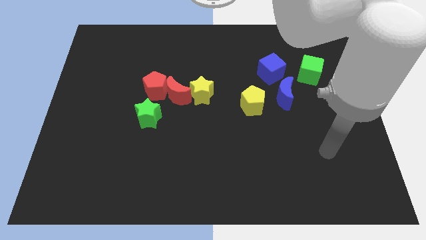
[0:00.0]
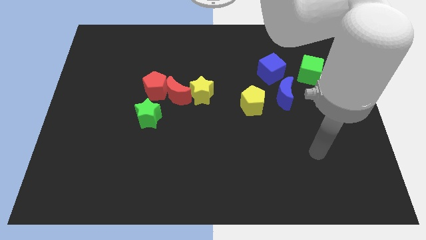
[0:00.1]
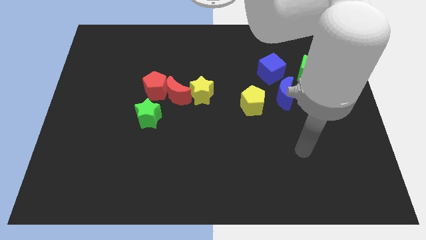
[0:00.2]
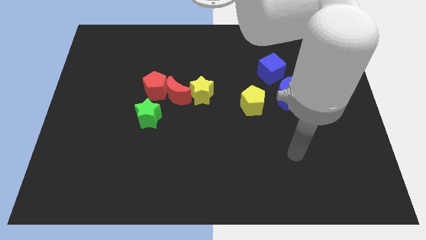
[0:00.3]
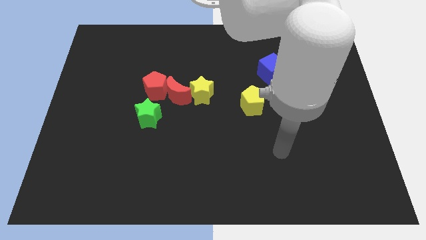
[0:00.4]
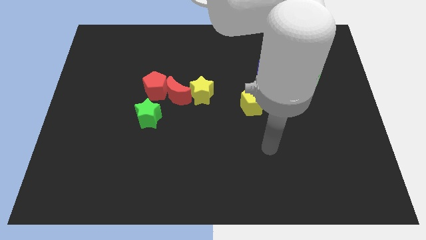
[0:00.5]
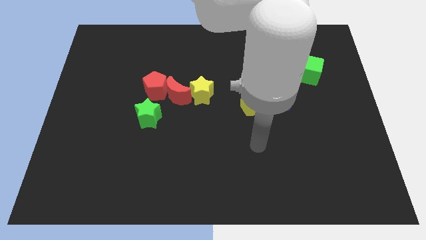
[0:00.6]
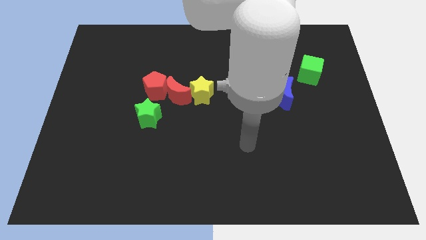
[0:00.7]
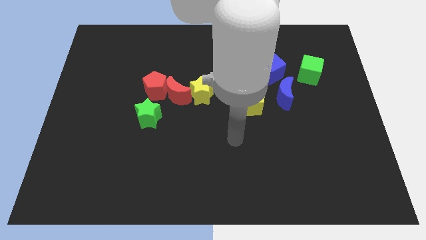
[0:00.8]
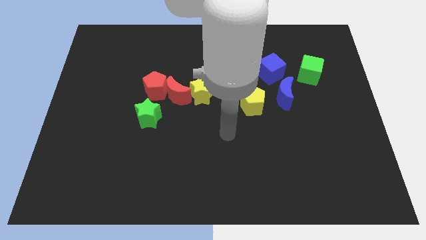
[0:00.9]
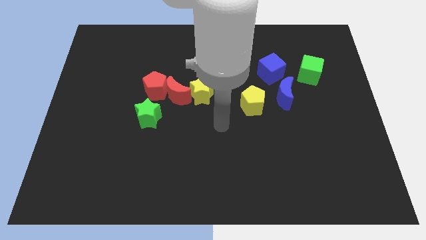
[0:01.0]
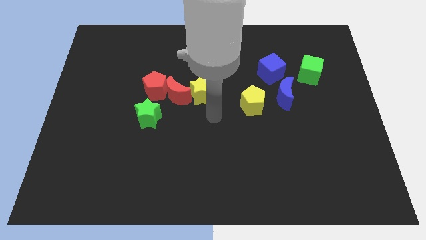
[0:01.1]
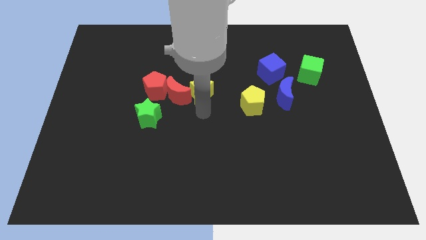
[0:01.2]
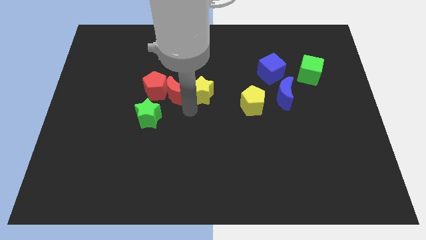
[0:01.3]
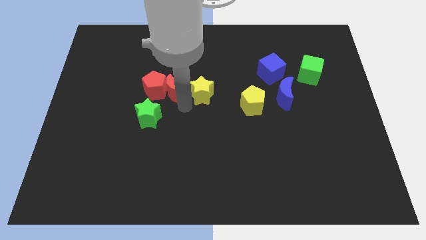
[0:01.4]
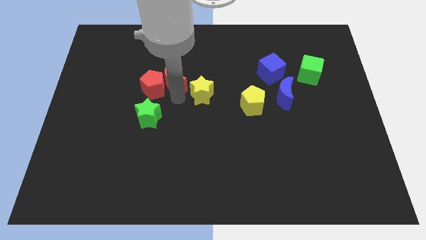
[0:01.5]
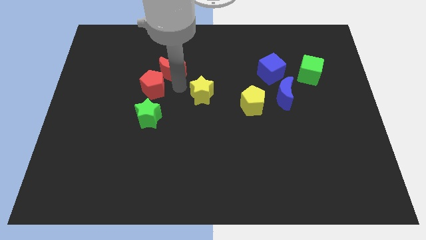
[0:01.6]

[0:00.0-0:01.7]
pull the yellow star apart from the red moon

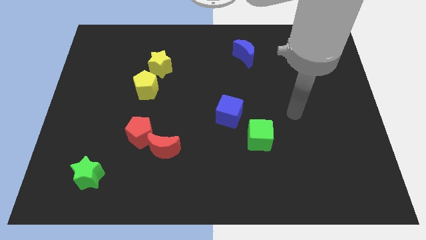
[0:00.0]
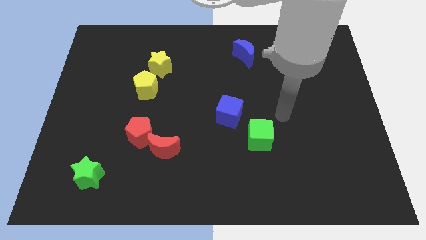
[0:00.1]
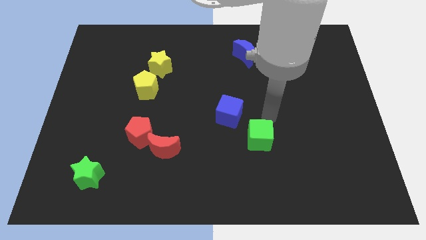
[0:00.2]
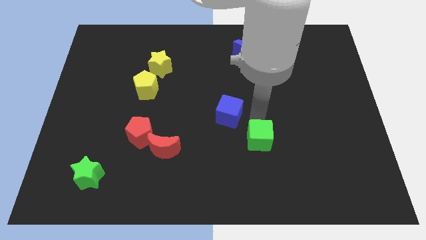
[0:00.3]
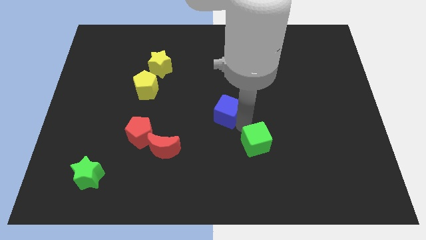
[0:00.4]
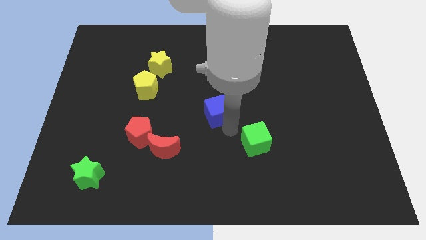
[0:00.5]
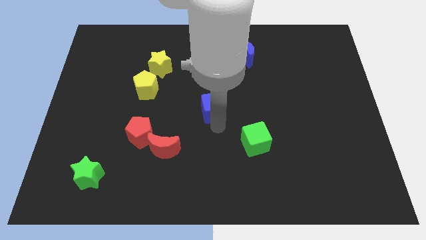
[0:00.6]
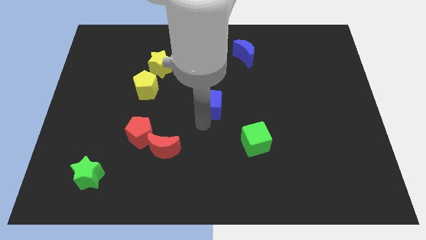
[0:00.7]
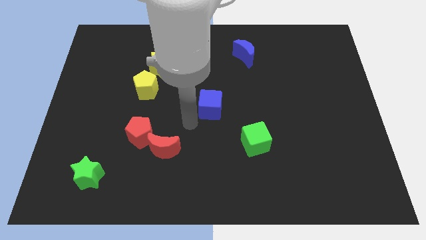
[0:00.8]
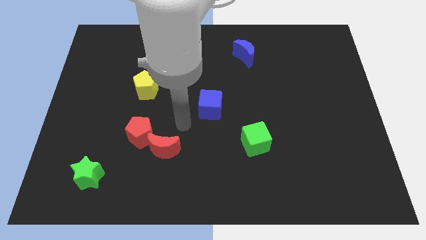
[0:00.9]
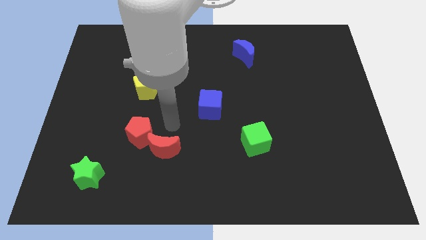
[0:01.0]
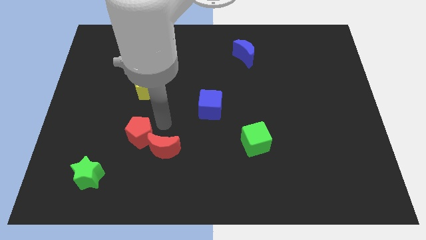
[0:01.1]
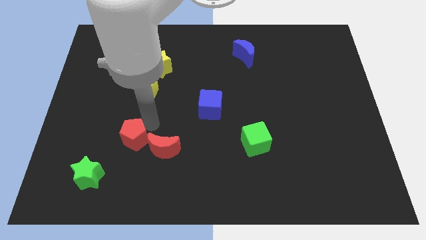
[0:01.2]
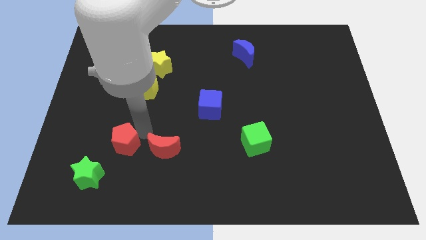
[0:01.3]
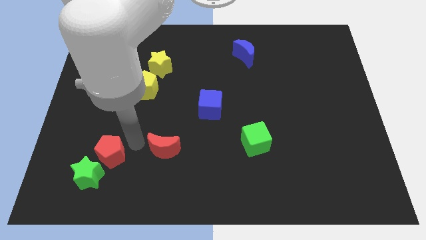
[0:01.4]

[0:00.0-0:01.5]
pull the red moon apart from the red pentagon

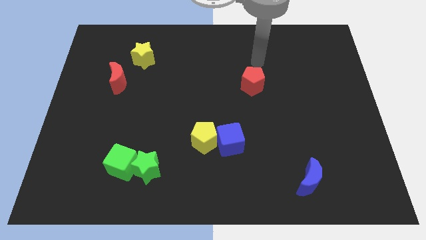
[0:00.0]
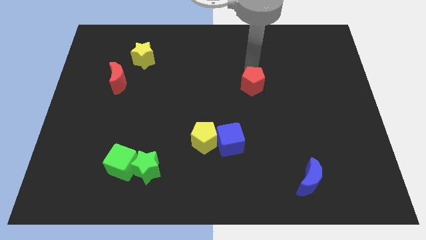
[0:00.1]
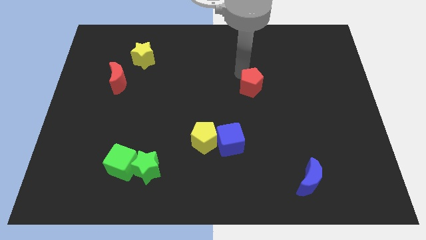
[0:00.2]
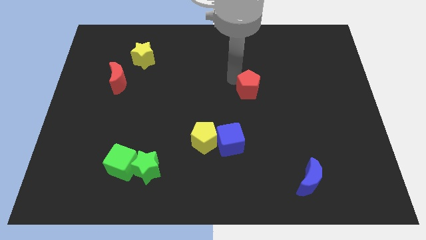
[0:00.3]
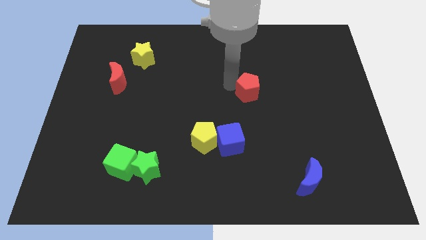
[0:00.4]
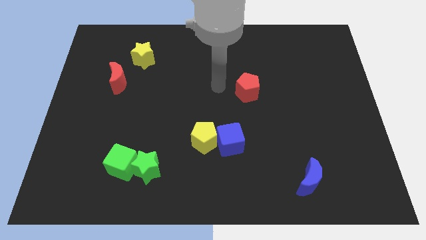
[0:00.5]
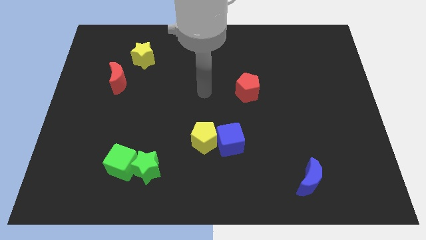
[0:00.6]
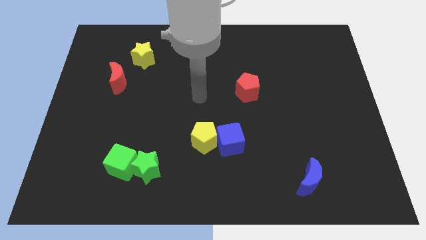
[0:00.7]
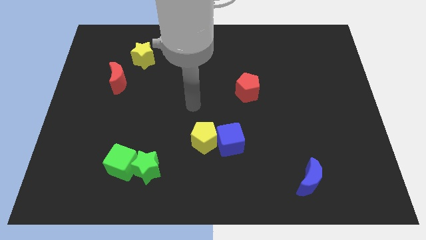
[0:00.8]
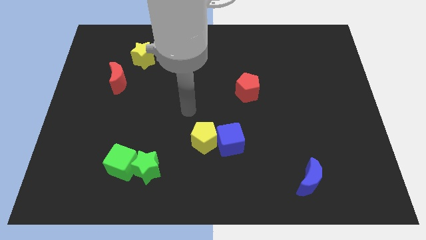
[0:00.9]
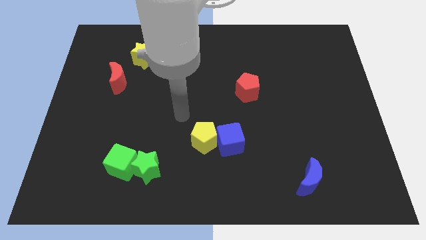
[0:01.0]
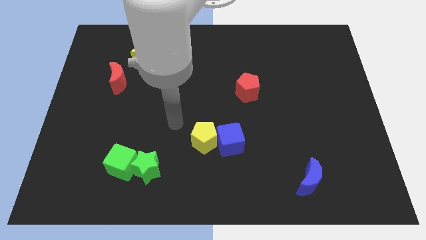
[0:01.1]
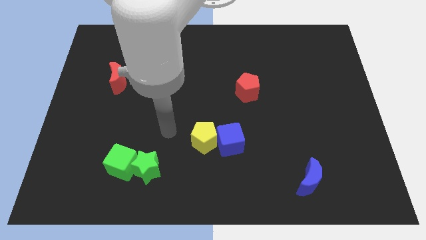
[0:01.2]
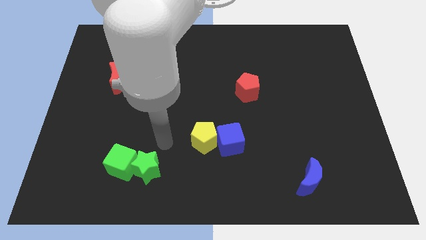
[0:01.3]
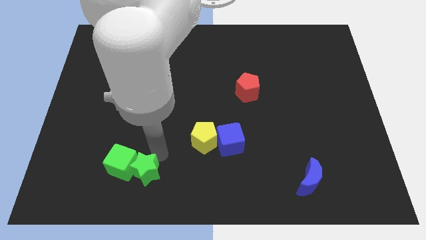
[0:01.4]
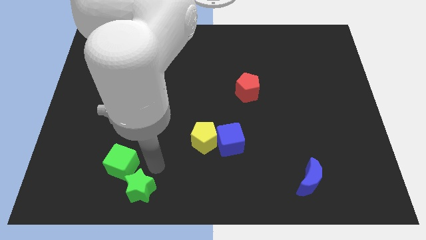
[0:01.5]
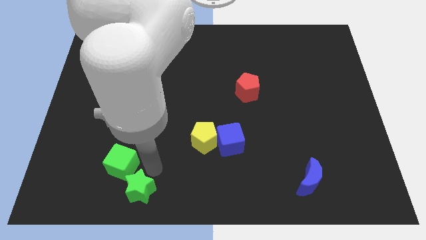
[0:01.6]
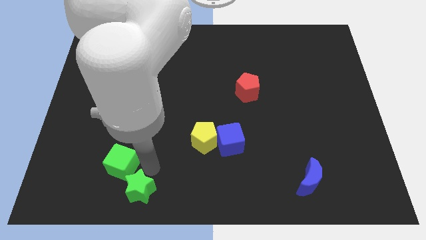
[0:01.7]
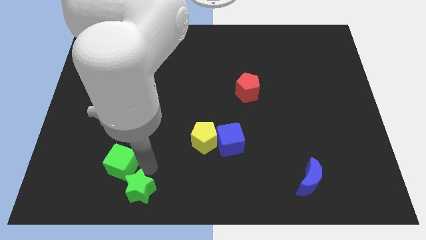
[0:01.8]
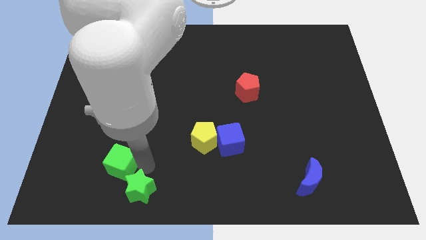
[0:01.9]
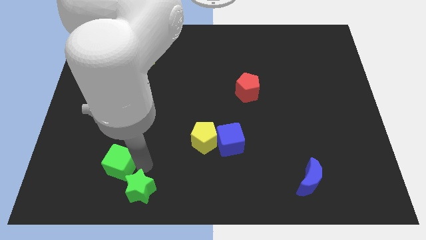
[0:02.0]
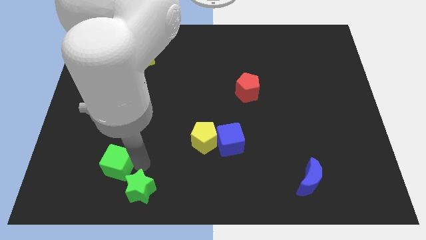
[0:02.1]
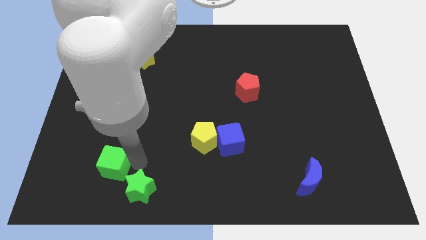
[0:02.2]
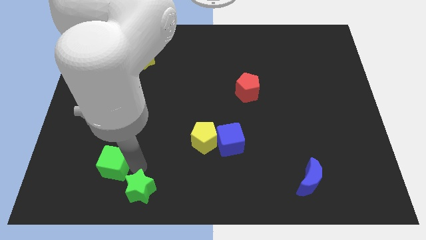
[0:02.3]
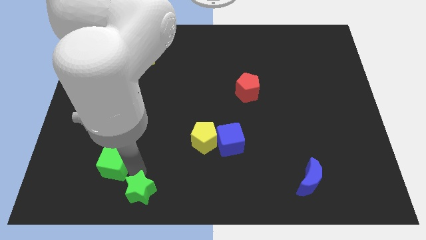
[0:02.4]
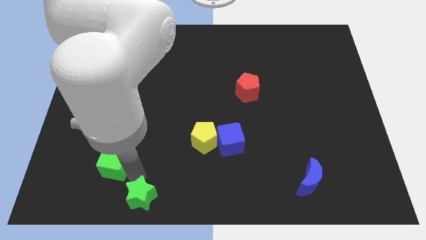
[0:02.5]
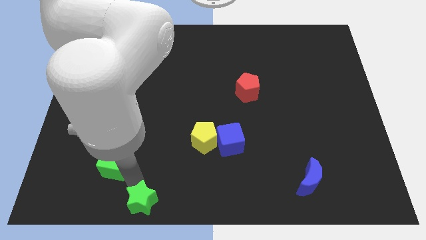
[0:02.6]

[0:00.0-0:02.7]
move the green cube away from the green star

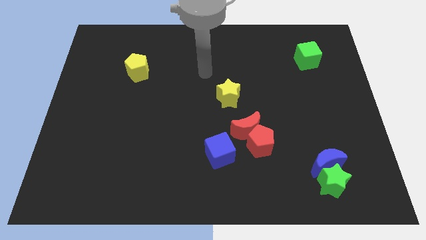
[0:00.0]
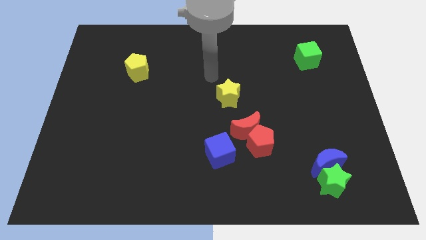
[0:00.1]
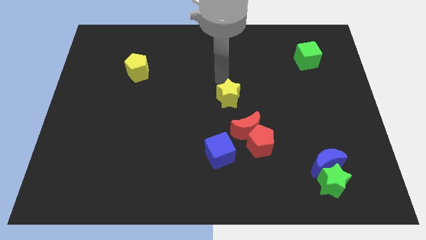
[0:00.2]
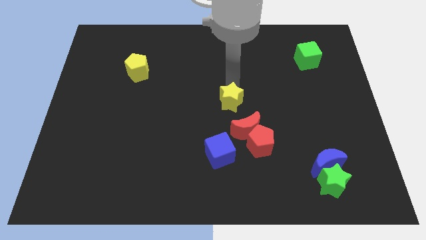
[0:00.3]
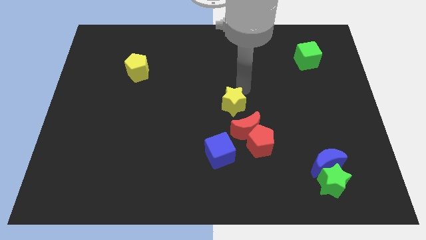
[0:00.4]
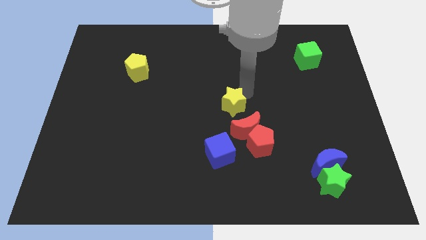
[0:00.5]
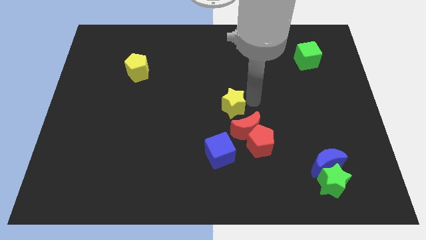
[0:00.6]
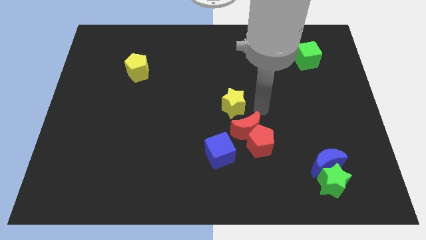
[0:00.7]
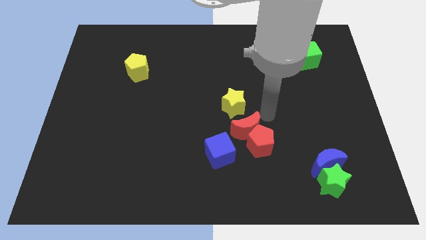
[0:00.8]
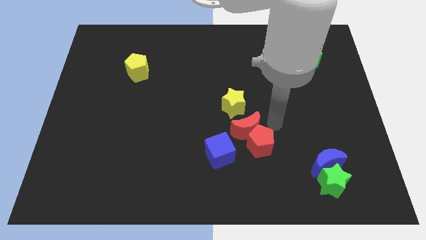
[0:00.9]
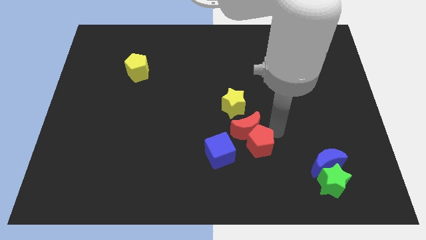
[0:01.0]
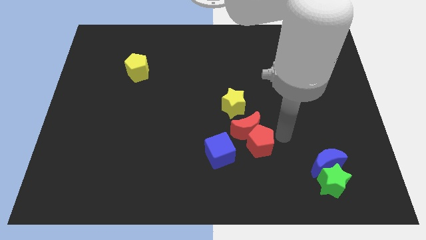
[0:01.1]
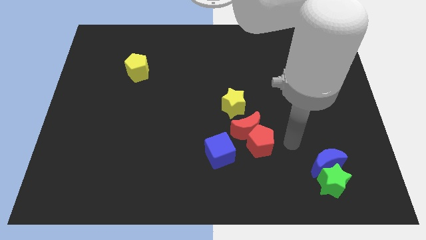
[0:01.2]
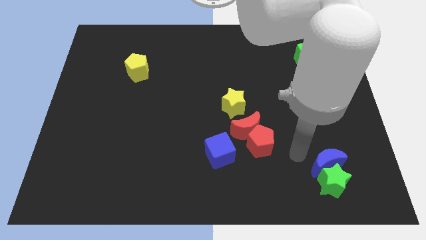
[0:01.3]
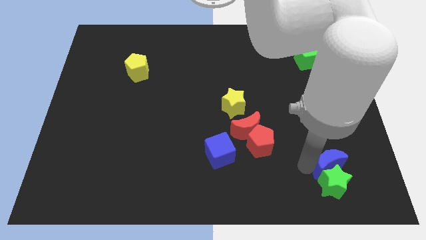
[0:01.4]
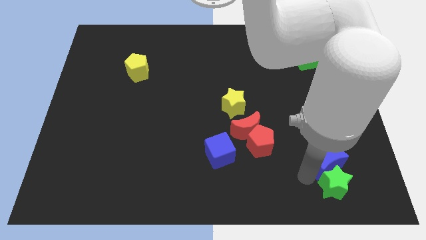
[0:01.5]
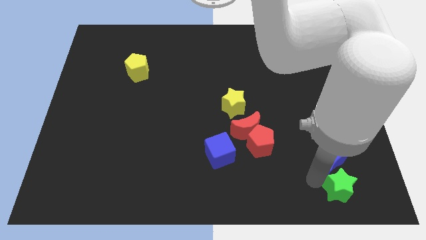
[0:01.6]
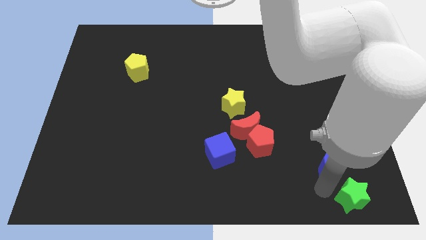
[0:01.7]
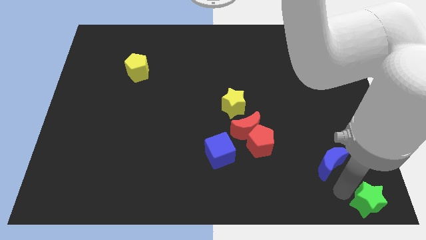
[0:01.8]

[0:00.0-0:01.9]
move the blue moon away from the green star

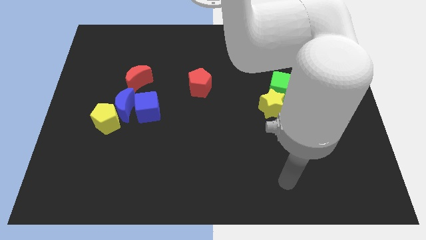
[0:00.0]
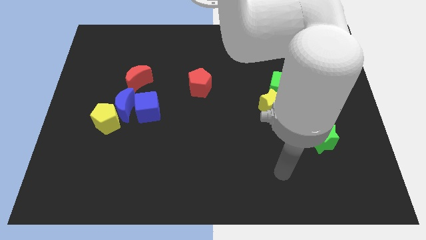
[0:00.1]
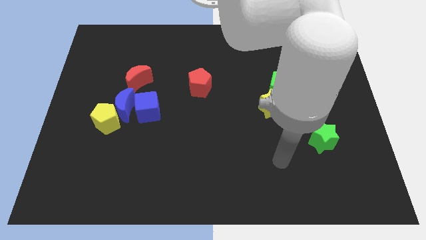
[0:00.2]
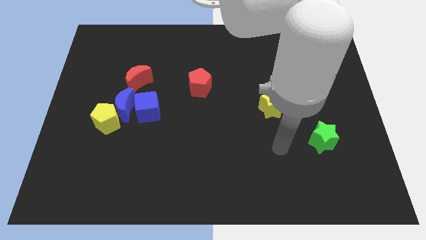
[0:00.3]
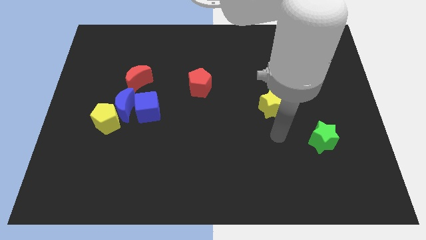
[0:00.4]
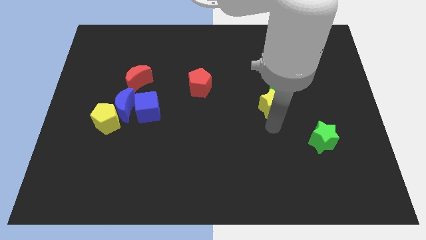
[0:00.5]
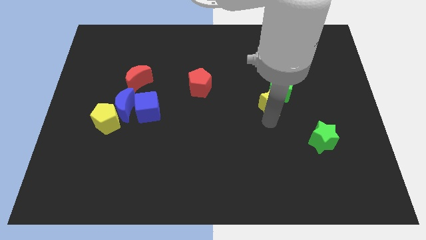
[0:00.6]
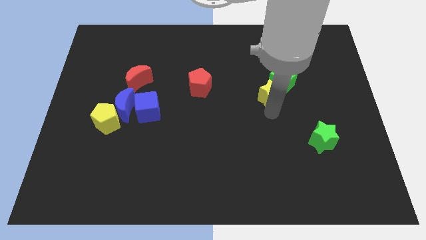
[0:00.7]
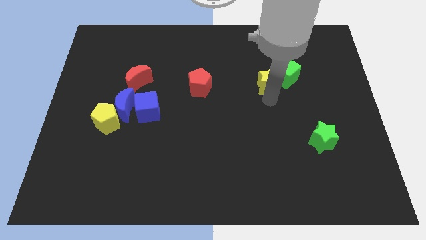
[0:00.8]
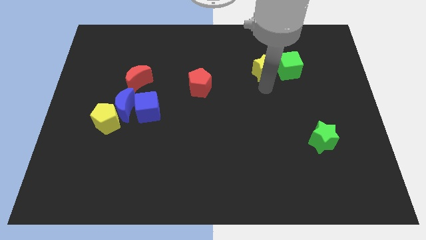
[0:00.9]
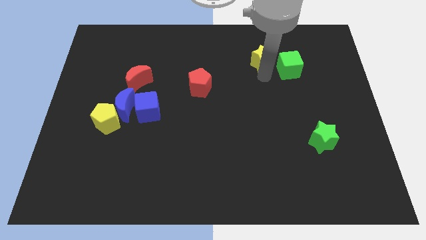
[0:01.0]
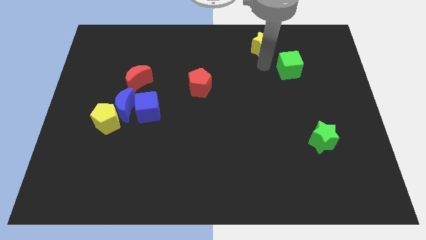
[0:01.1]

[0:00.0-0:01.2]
separate the green cube from the yellow star

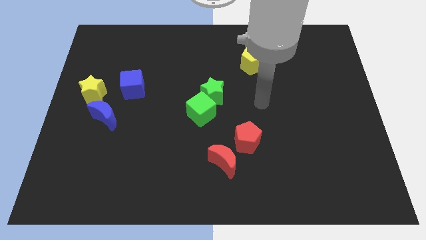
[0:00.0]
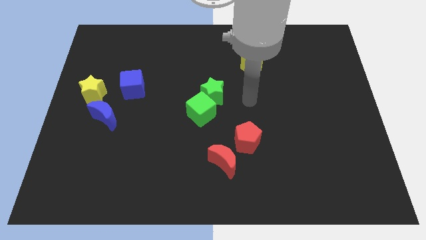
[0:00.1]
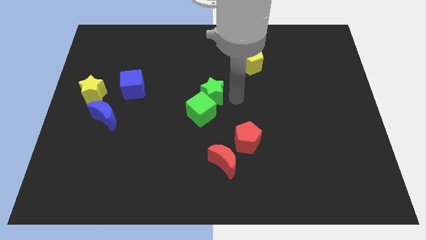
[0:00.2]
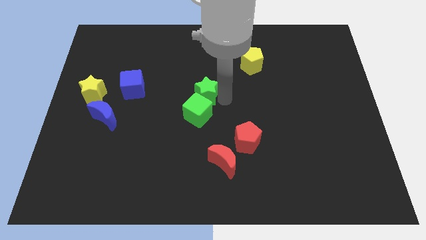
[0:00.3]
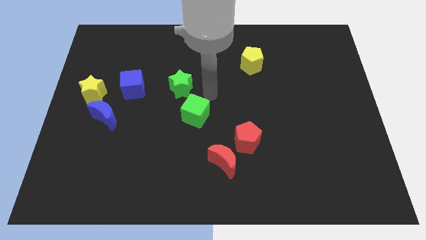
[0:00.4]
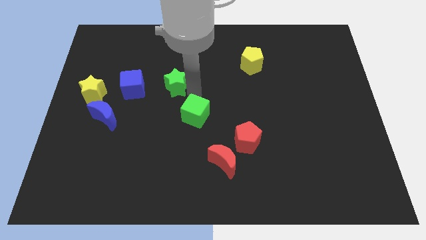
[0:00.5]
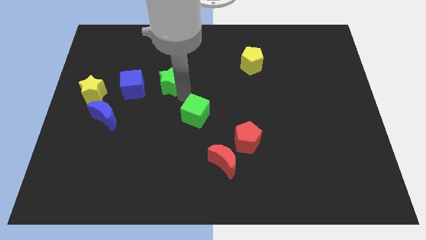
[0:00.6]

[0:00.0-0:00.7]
separate the green cube from the green star
